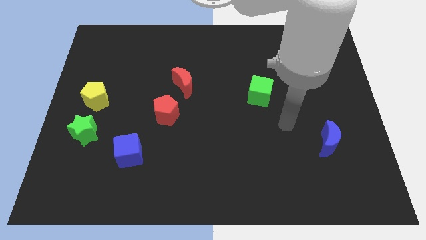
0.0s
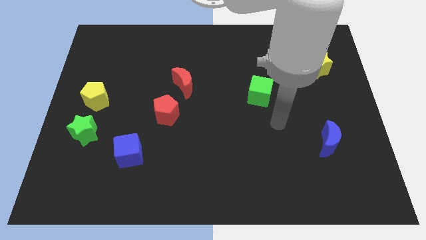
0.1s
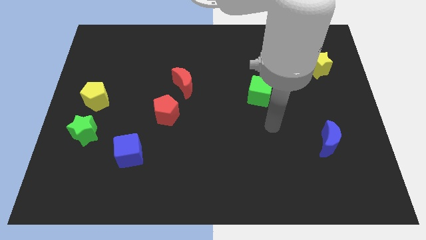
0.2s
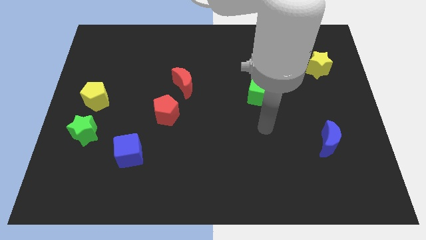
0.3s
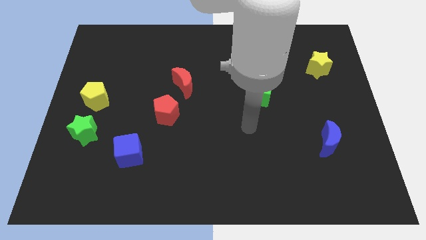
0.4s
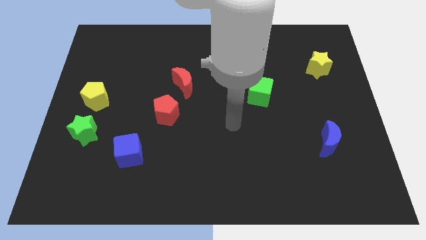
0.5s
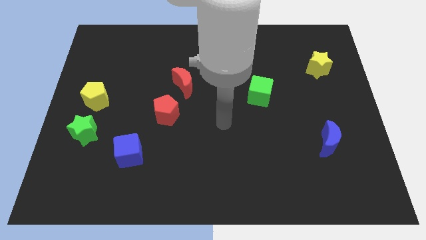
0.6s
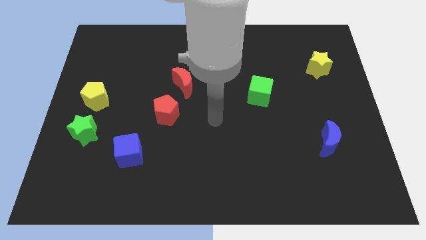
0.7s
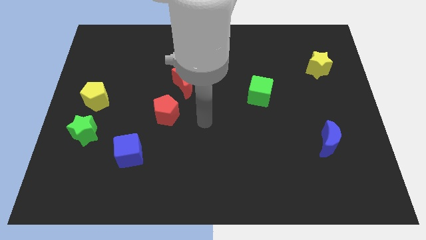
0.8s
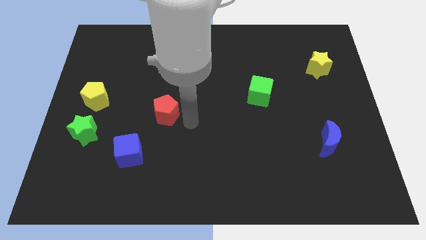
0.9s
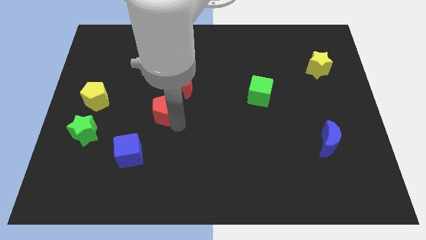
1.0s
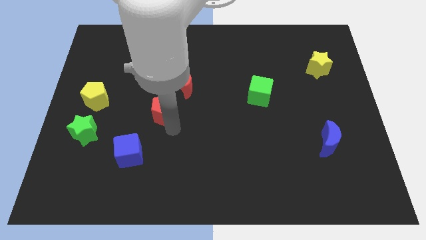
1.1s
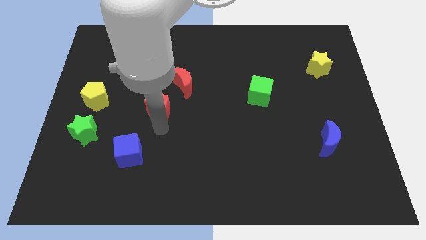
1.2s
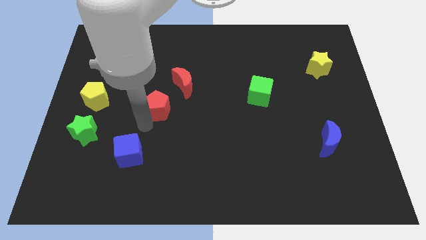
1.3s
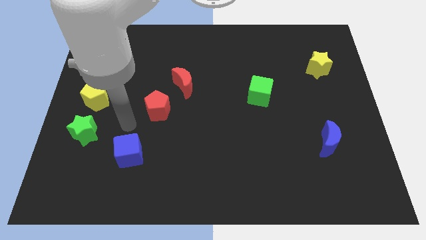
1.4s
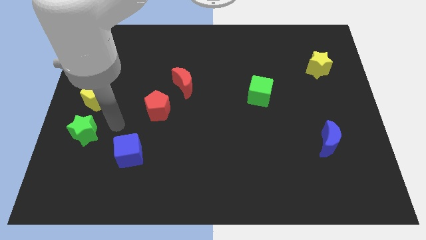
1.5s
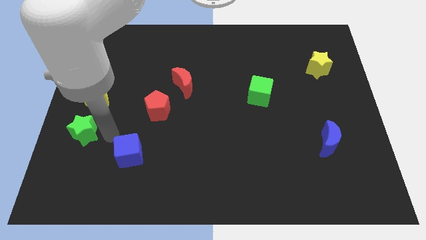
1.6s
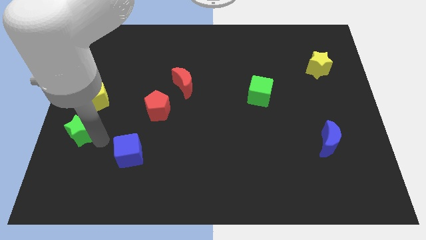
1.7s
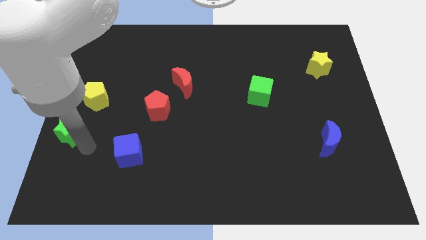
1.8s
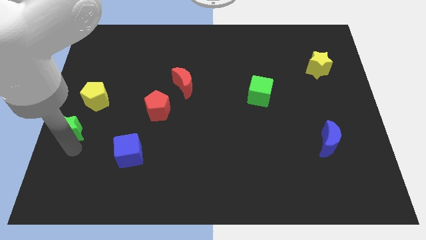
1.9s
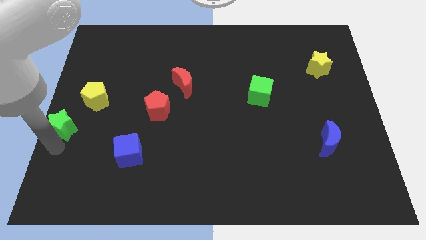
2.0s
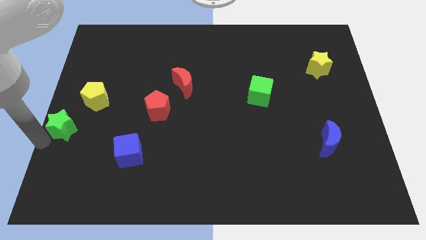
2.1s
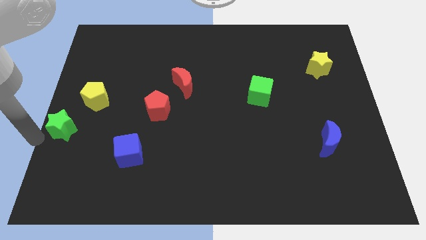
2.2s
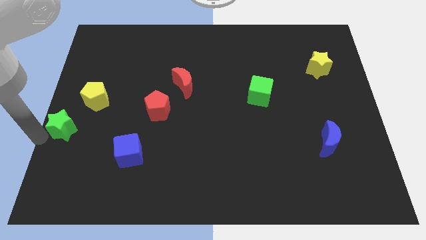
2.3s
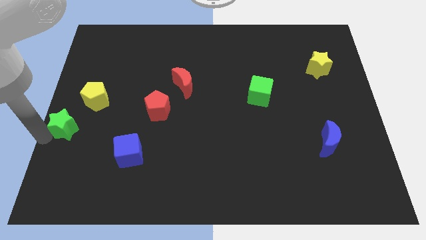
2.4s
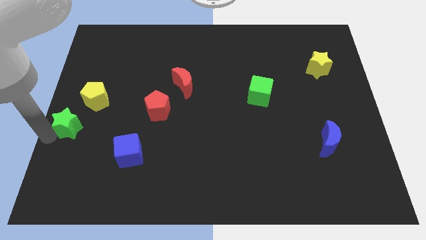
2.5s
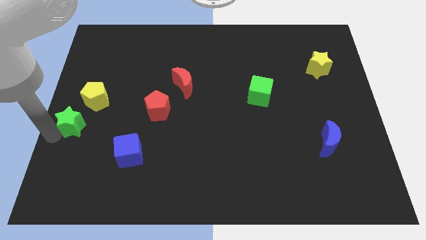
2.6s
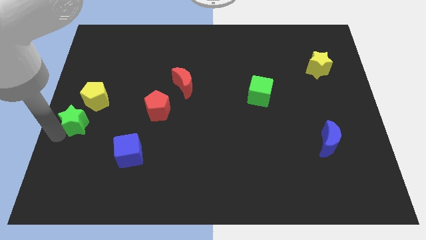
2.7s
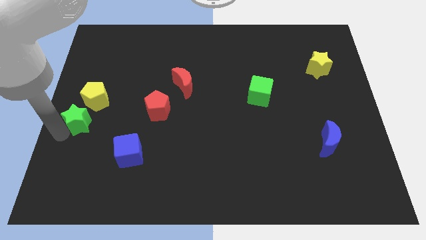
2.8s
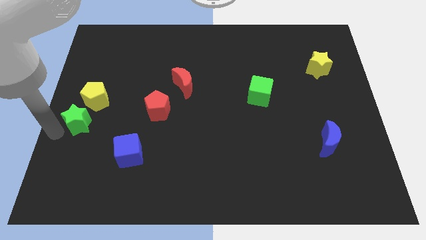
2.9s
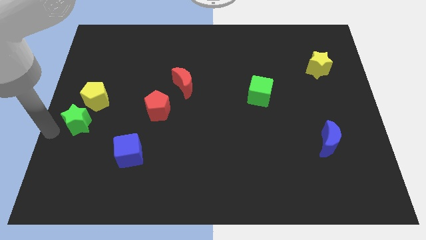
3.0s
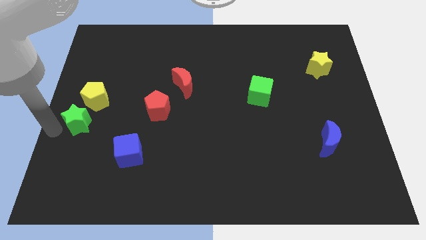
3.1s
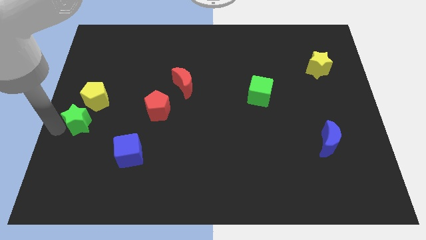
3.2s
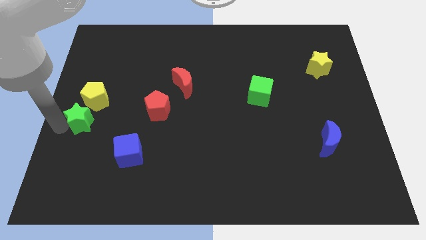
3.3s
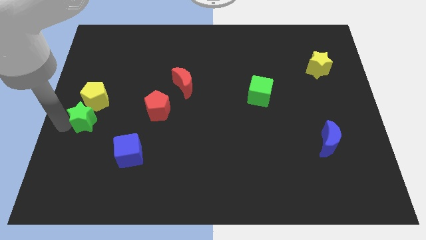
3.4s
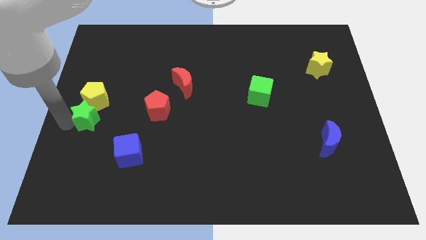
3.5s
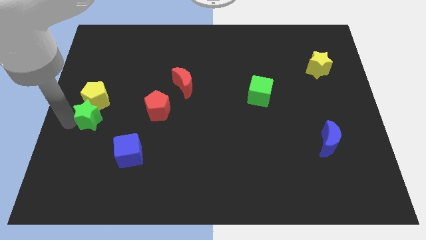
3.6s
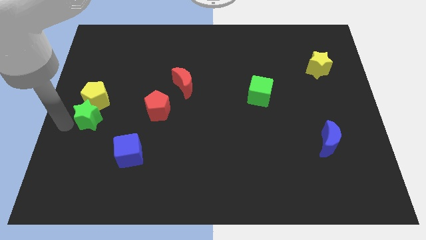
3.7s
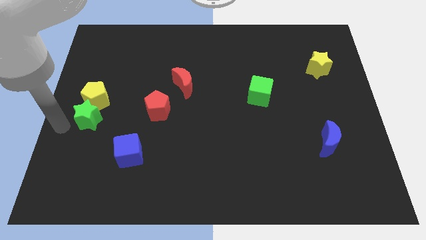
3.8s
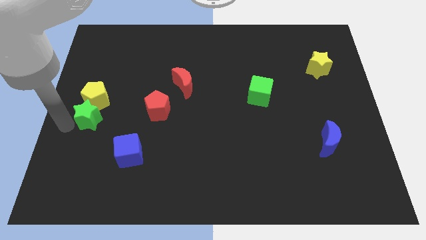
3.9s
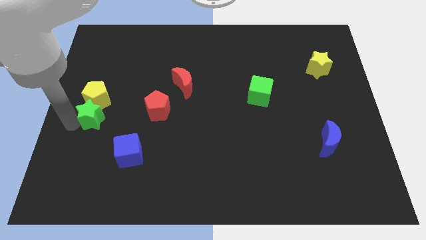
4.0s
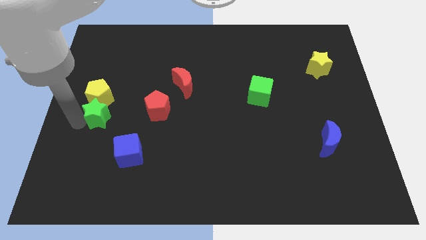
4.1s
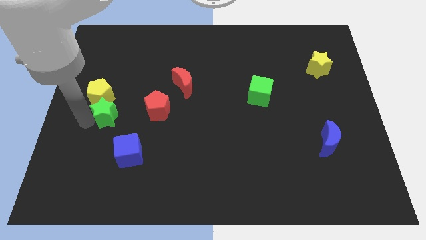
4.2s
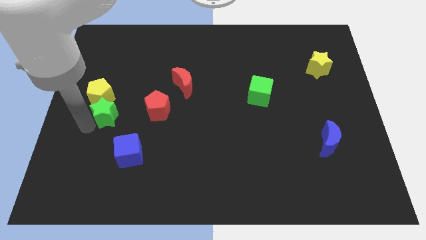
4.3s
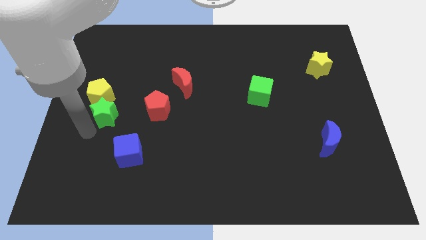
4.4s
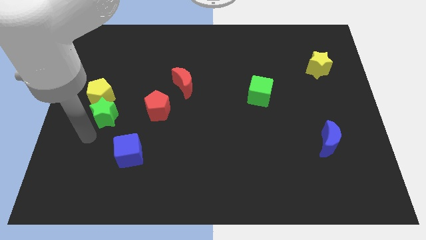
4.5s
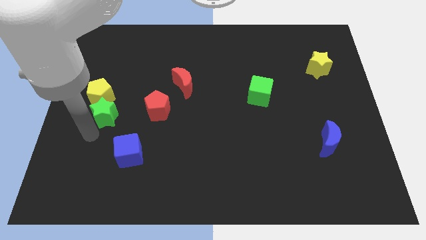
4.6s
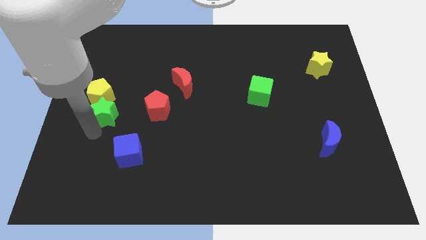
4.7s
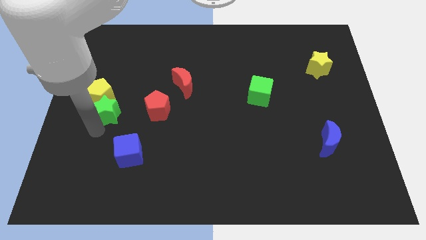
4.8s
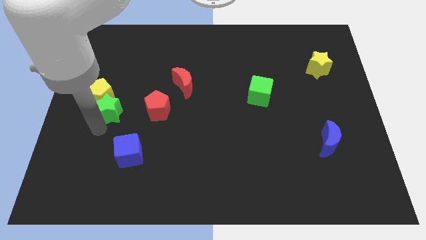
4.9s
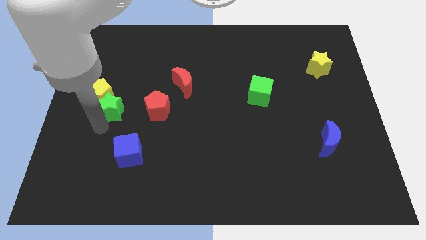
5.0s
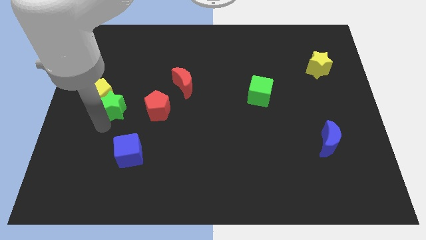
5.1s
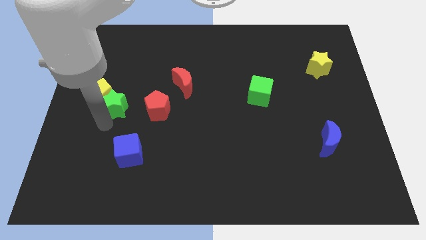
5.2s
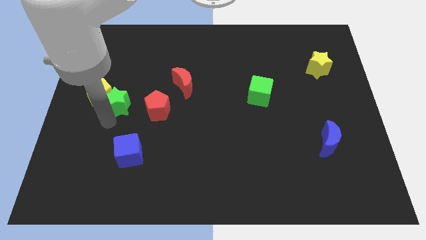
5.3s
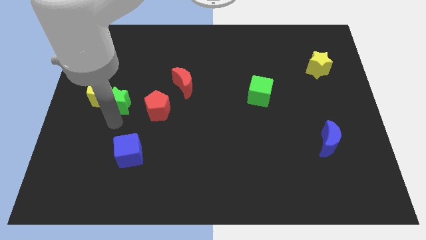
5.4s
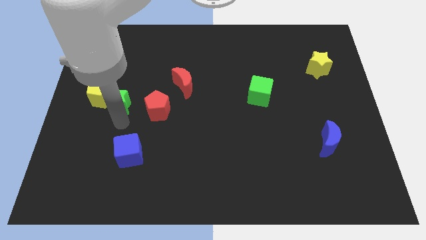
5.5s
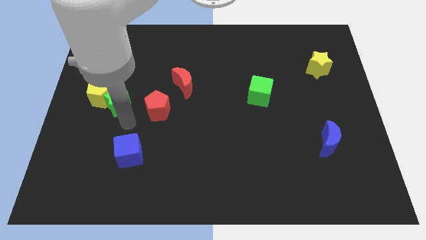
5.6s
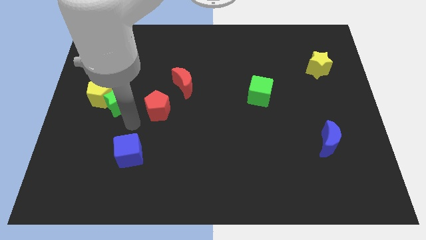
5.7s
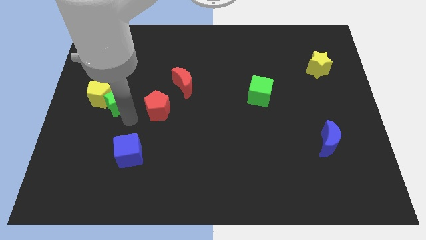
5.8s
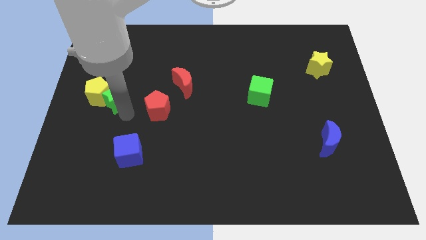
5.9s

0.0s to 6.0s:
push the green star a little bit upwards

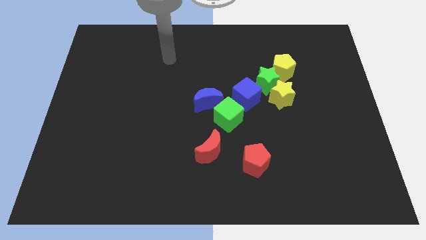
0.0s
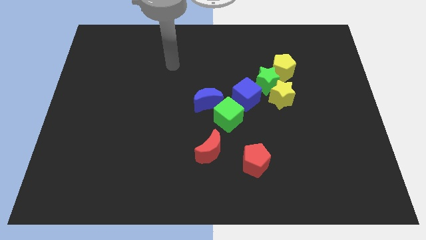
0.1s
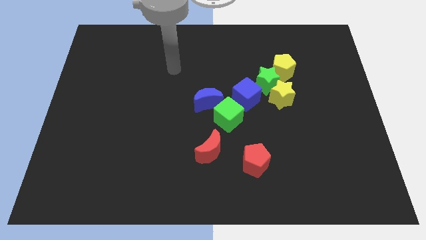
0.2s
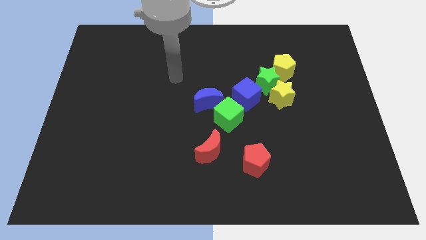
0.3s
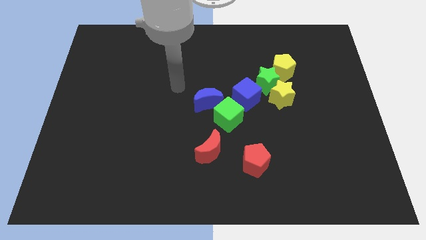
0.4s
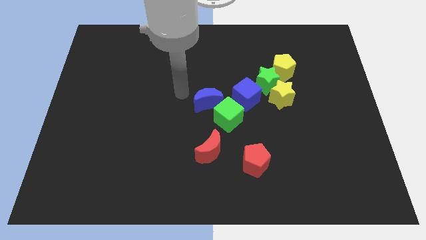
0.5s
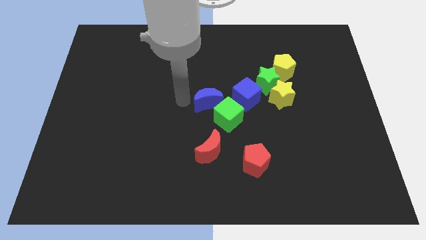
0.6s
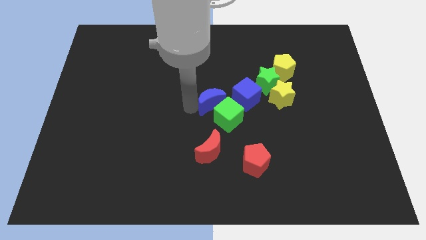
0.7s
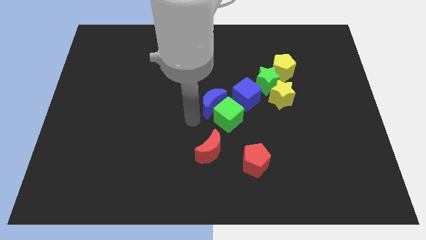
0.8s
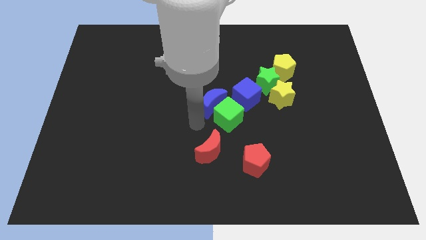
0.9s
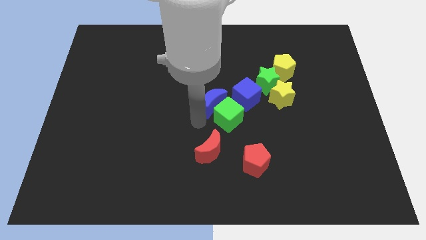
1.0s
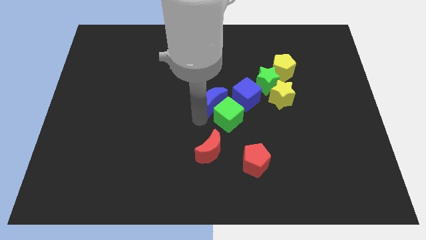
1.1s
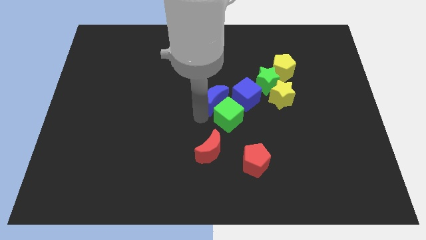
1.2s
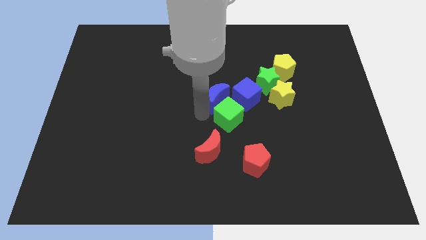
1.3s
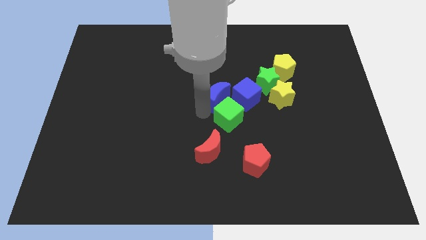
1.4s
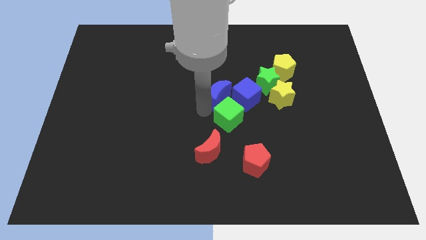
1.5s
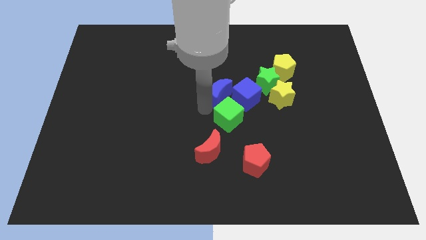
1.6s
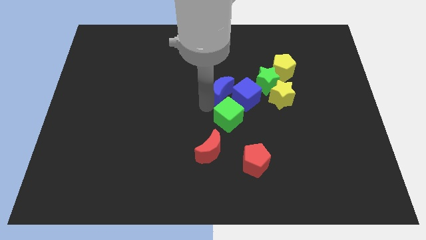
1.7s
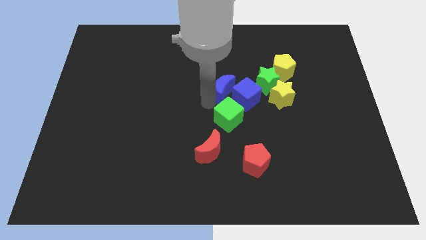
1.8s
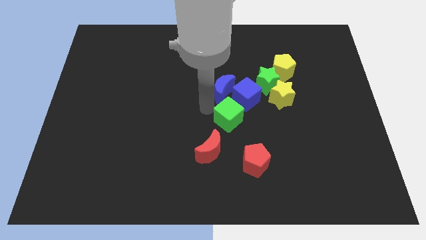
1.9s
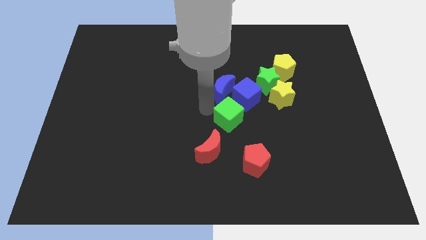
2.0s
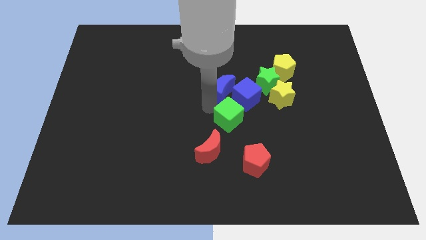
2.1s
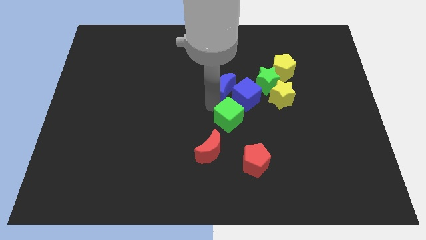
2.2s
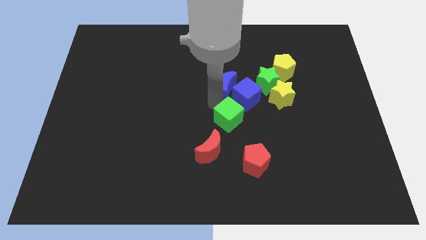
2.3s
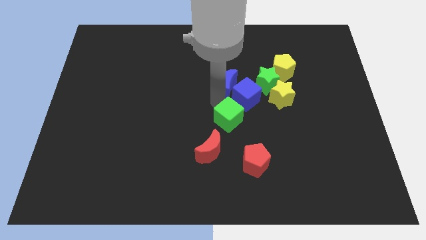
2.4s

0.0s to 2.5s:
push the blue moon up and right diagonally a bit
